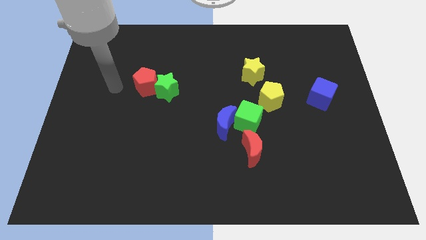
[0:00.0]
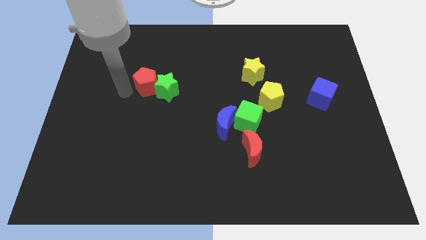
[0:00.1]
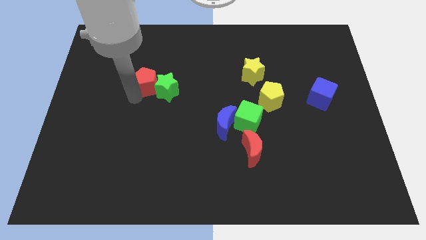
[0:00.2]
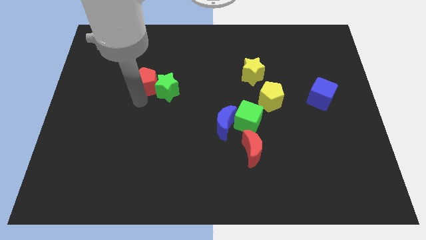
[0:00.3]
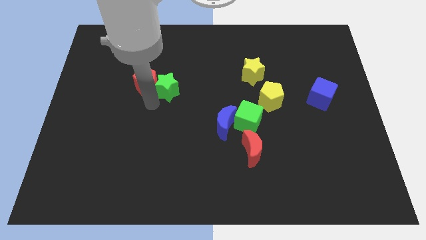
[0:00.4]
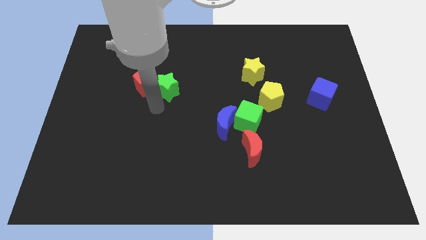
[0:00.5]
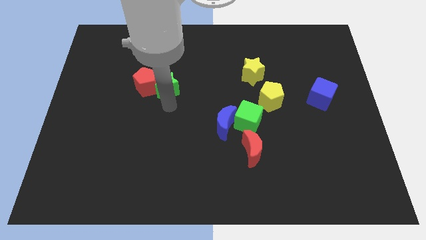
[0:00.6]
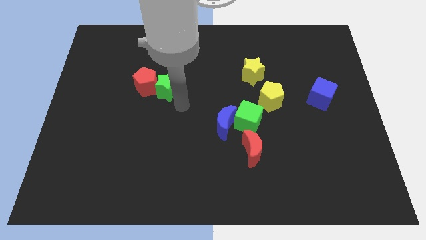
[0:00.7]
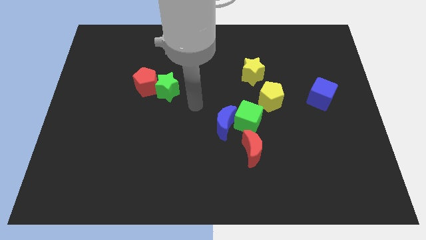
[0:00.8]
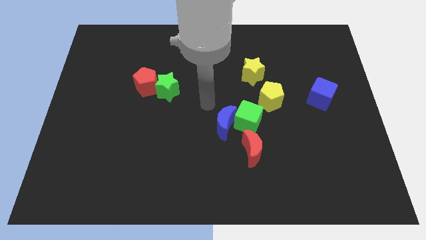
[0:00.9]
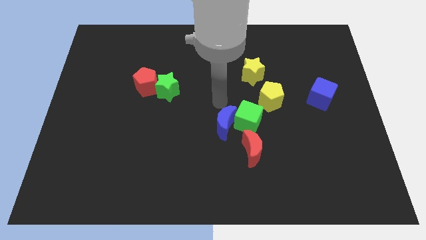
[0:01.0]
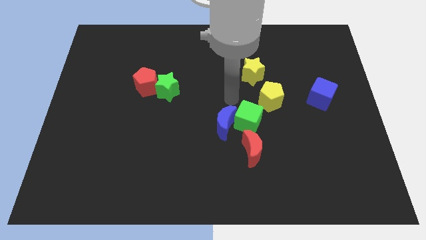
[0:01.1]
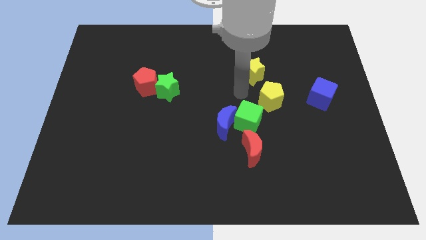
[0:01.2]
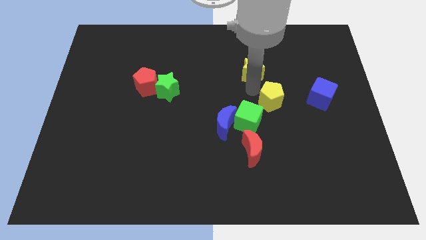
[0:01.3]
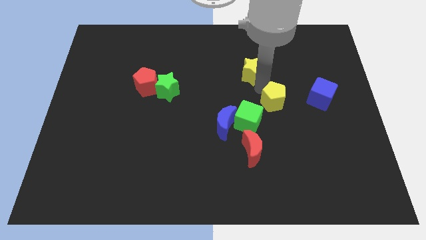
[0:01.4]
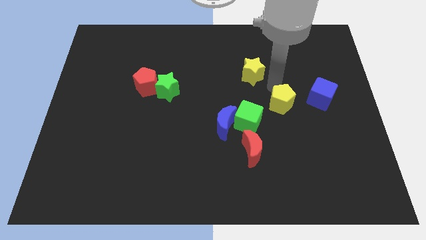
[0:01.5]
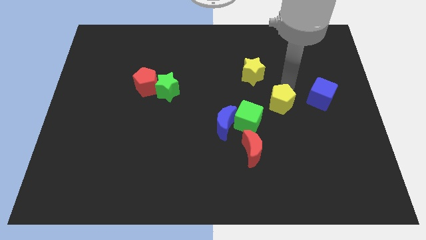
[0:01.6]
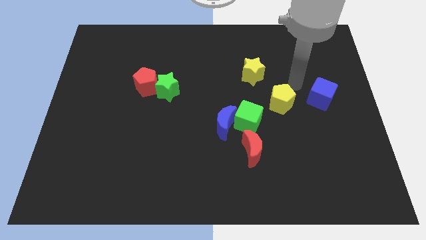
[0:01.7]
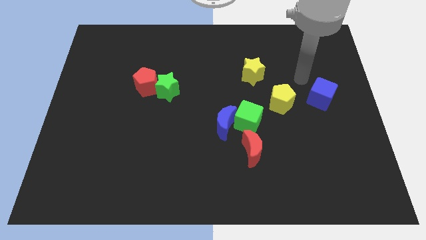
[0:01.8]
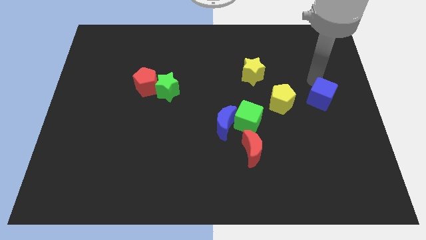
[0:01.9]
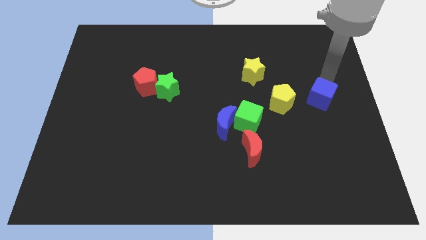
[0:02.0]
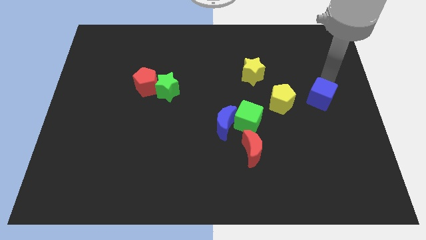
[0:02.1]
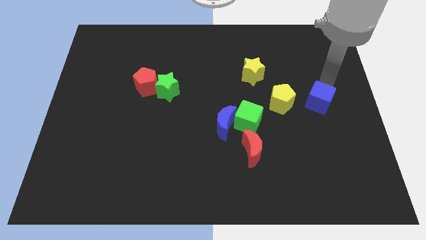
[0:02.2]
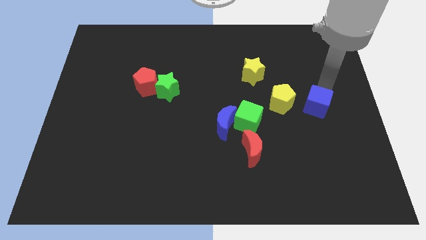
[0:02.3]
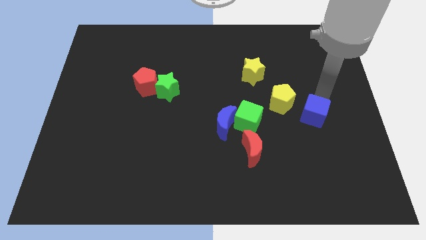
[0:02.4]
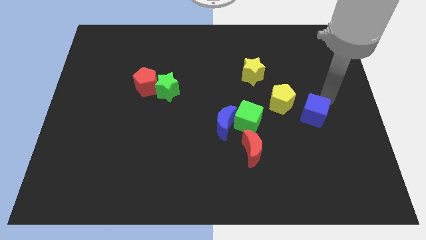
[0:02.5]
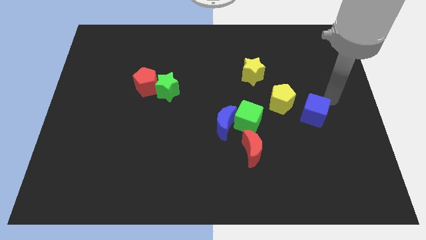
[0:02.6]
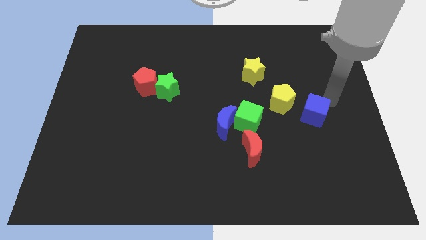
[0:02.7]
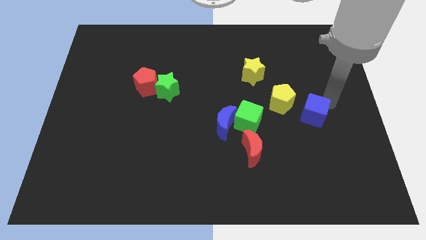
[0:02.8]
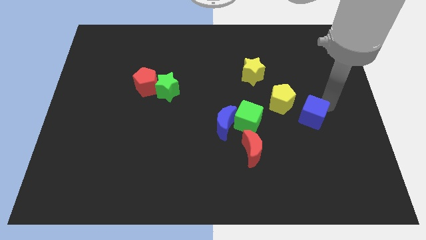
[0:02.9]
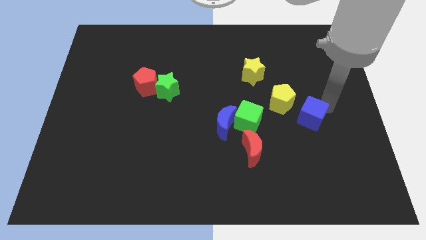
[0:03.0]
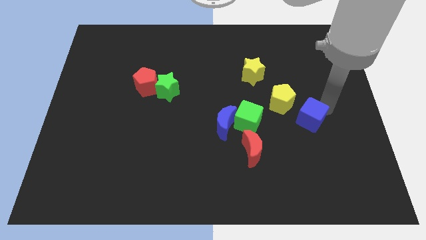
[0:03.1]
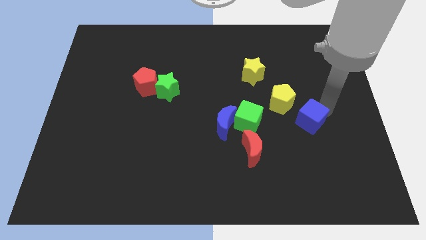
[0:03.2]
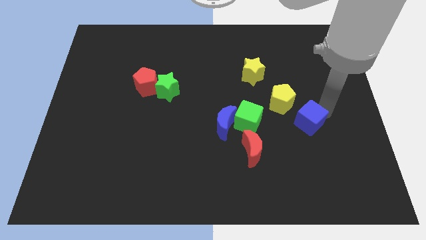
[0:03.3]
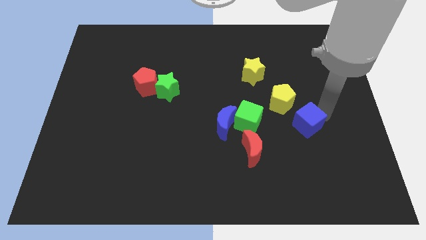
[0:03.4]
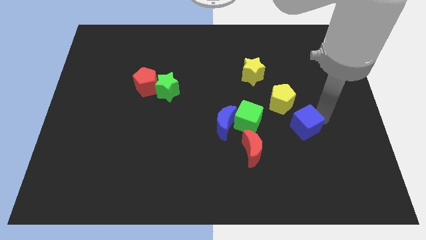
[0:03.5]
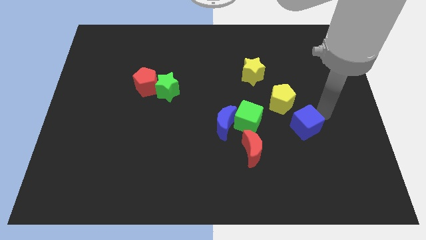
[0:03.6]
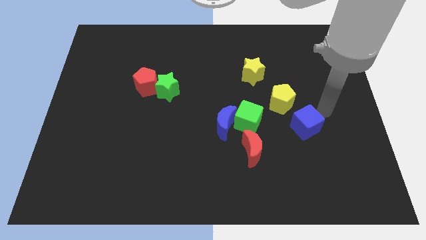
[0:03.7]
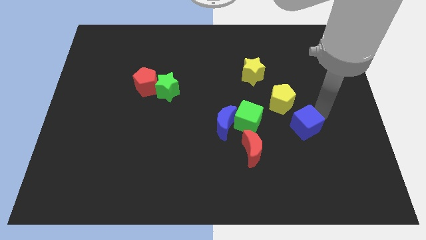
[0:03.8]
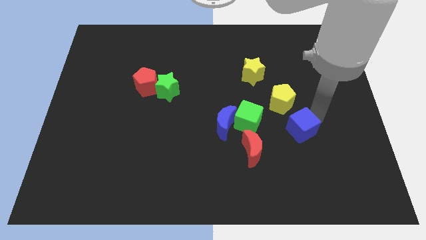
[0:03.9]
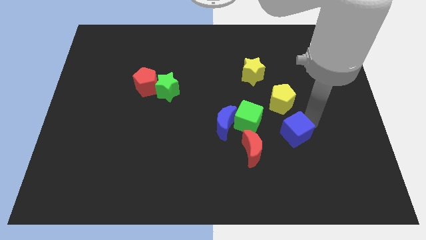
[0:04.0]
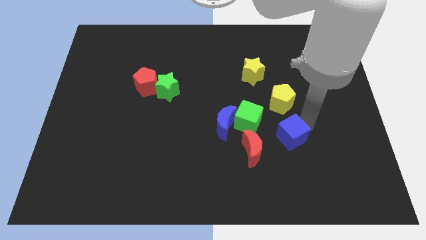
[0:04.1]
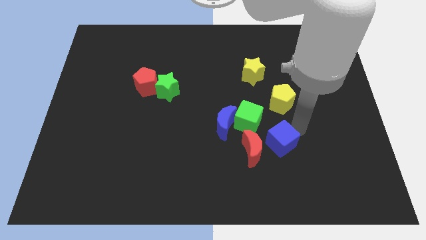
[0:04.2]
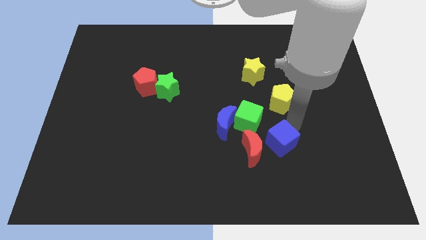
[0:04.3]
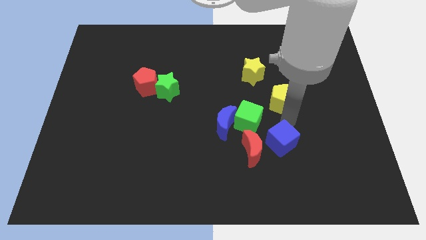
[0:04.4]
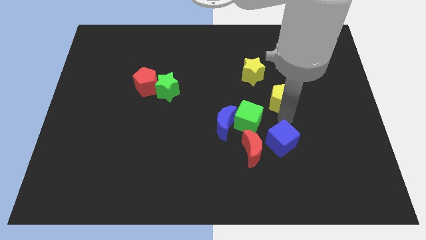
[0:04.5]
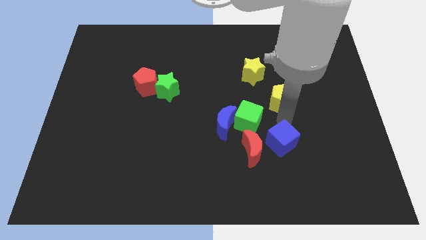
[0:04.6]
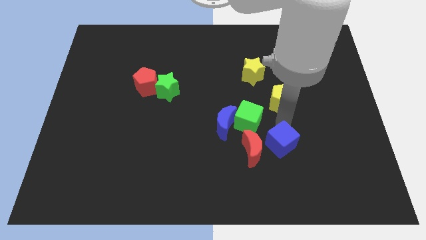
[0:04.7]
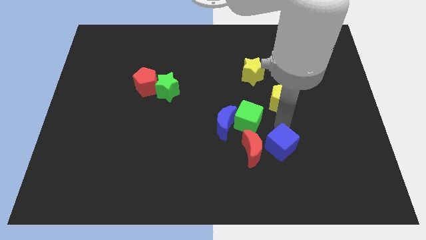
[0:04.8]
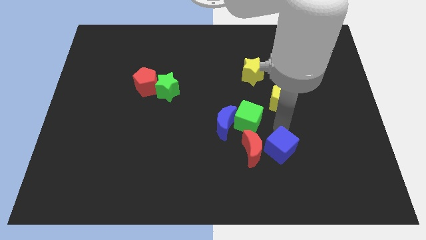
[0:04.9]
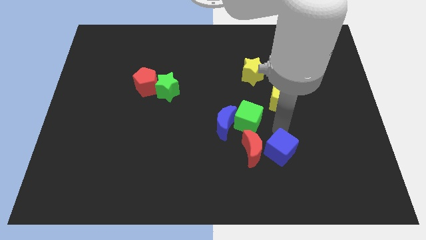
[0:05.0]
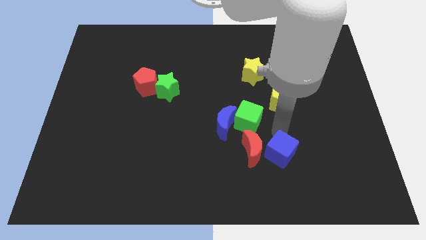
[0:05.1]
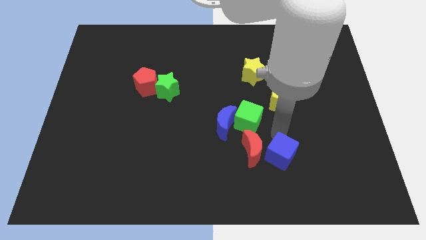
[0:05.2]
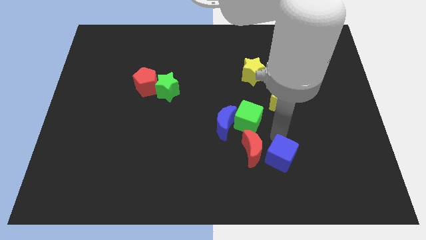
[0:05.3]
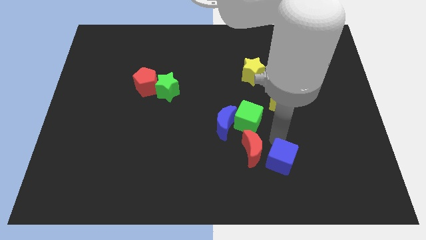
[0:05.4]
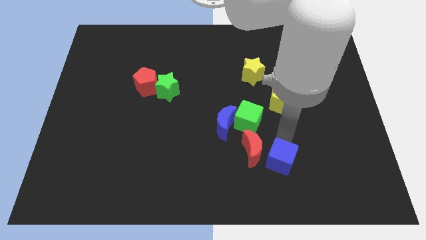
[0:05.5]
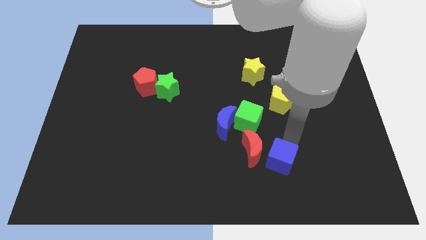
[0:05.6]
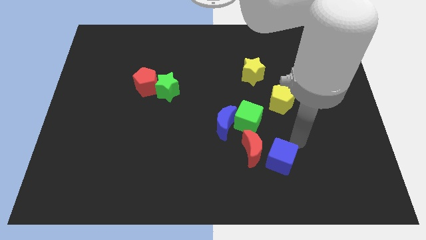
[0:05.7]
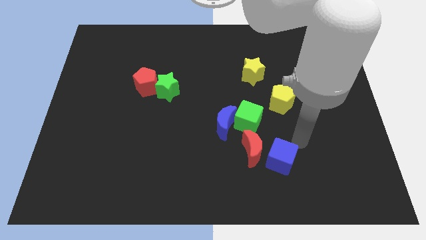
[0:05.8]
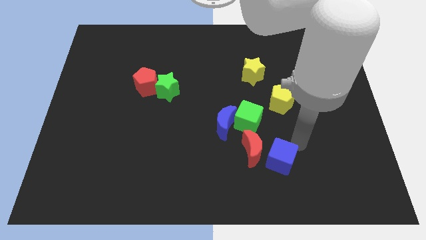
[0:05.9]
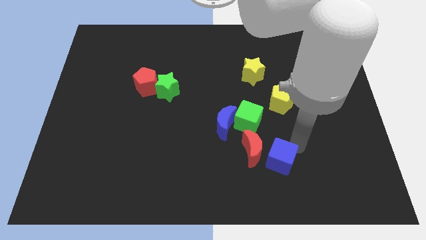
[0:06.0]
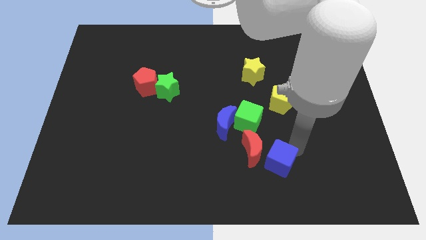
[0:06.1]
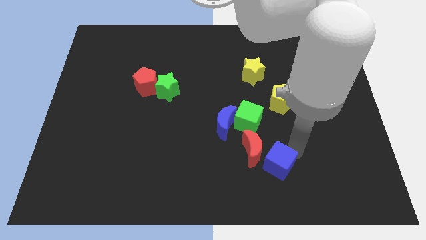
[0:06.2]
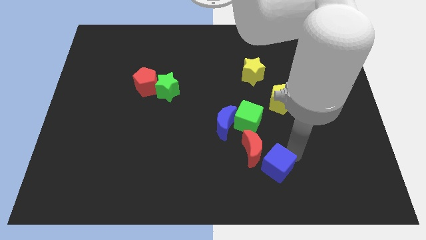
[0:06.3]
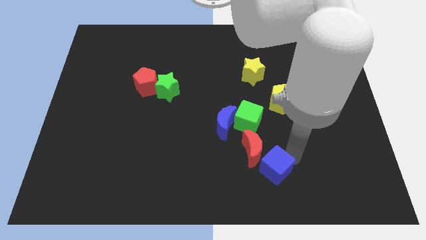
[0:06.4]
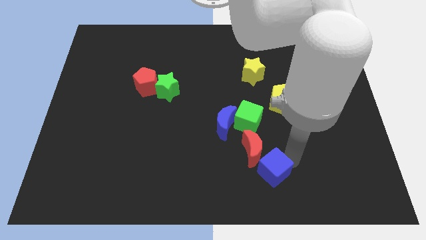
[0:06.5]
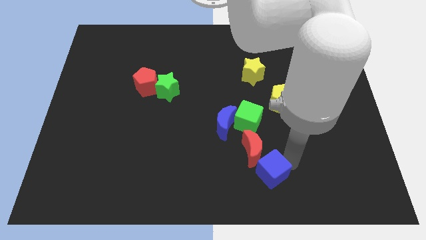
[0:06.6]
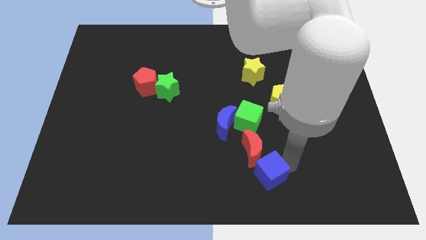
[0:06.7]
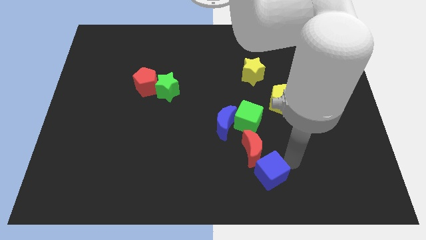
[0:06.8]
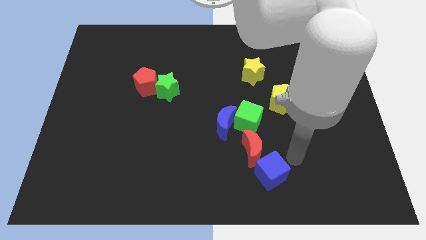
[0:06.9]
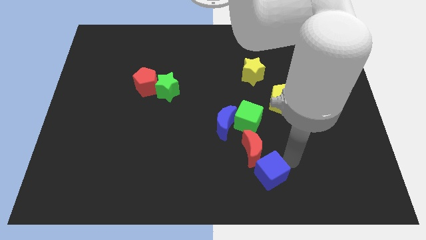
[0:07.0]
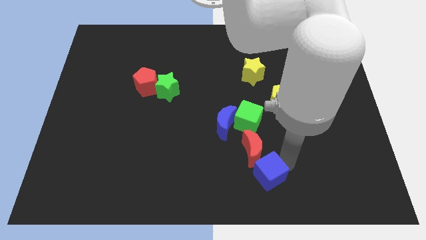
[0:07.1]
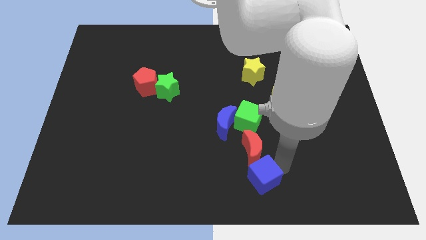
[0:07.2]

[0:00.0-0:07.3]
slide the blue cube to the bottom
